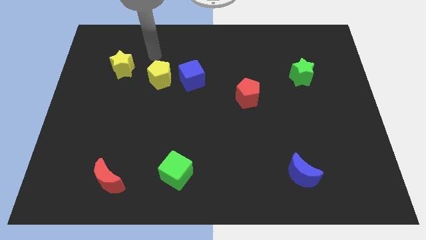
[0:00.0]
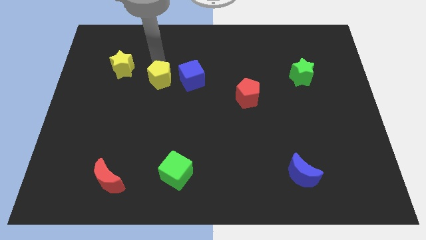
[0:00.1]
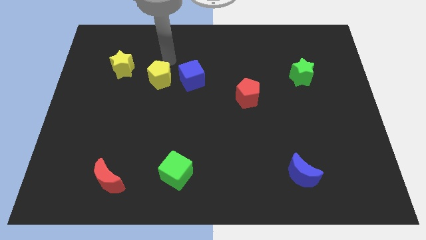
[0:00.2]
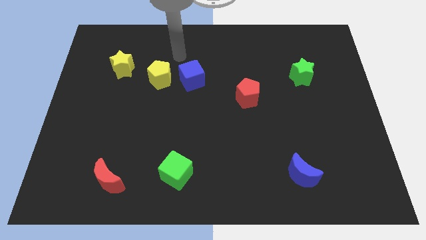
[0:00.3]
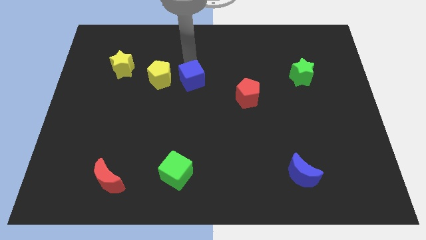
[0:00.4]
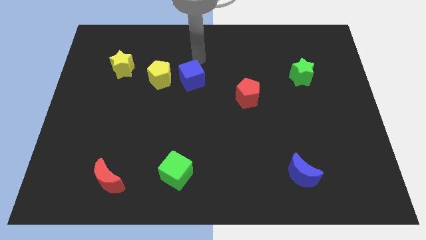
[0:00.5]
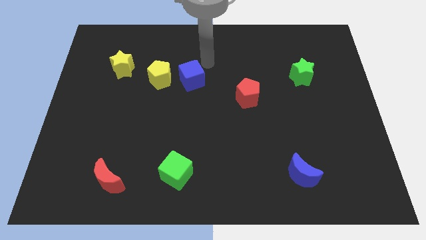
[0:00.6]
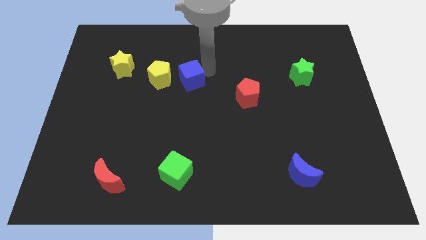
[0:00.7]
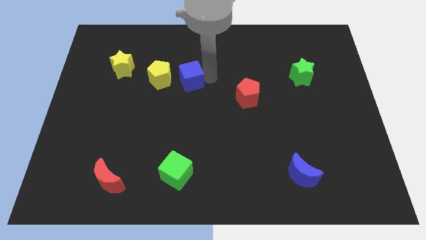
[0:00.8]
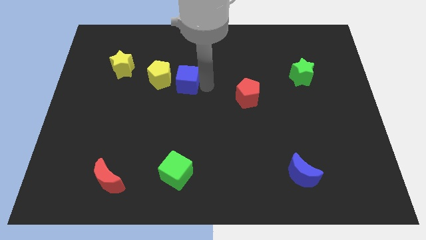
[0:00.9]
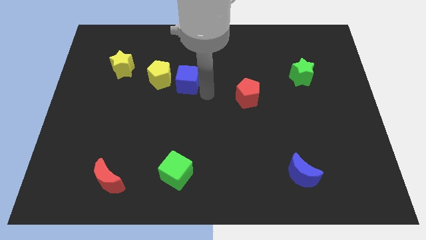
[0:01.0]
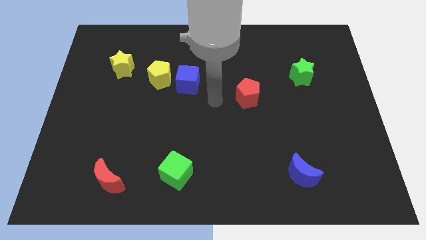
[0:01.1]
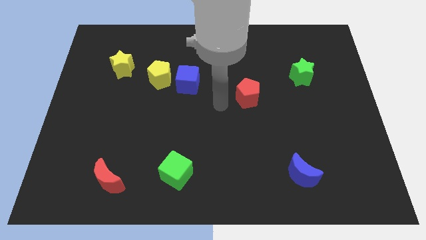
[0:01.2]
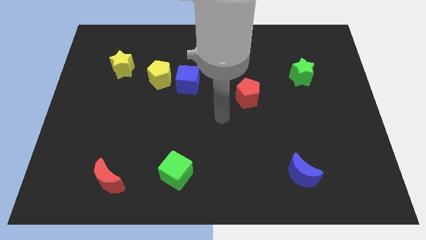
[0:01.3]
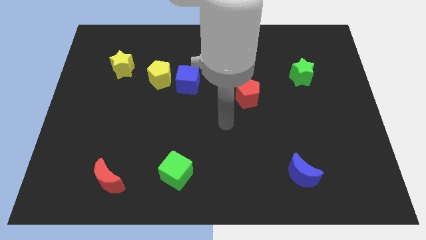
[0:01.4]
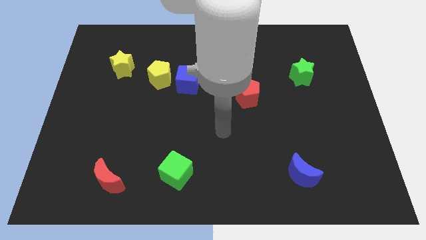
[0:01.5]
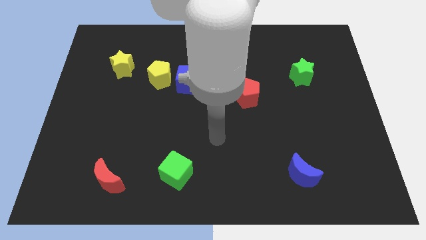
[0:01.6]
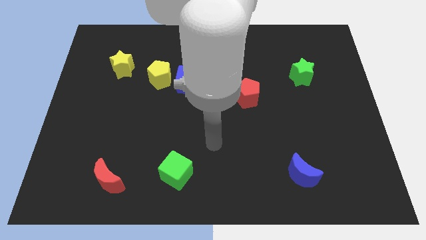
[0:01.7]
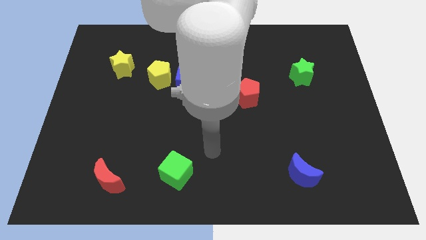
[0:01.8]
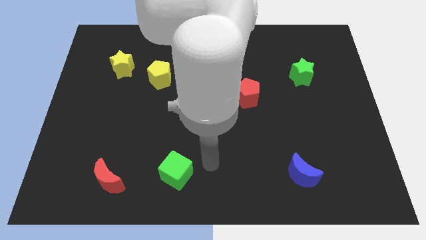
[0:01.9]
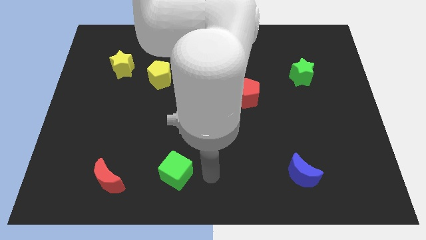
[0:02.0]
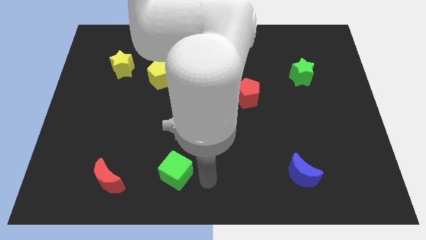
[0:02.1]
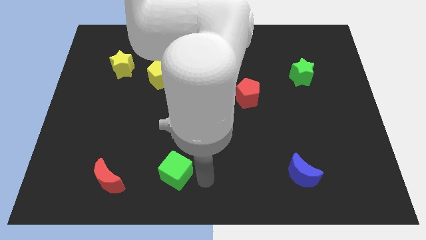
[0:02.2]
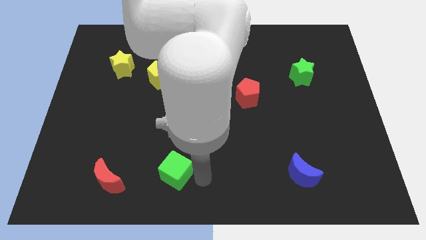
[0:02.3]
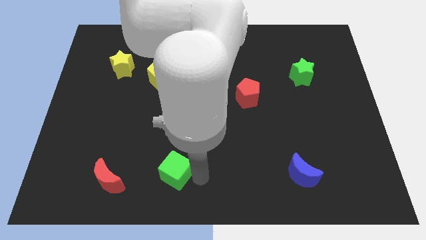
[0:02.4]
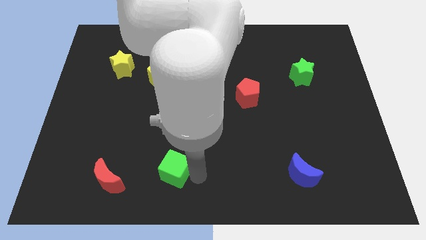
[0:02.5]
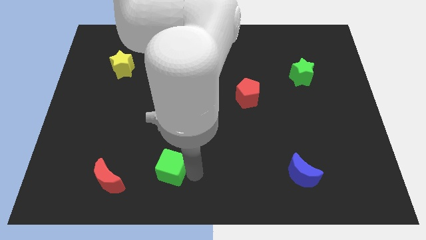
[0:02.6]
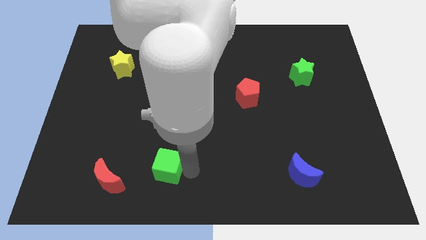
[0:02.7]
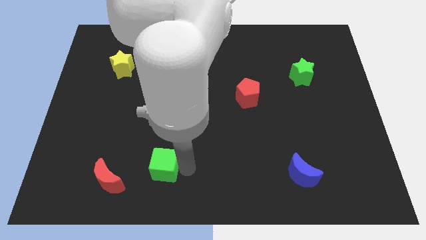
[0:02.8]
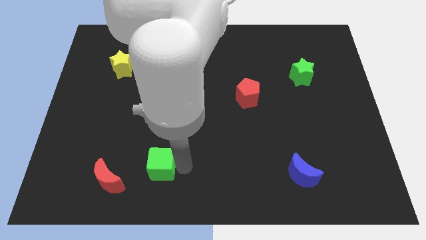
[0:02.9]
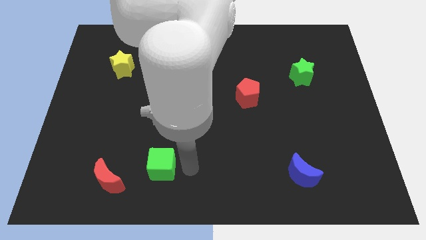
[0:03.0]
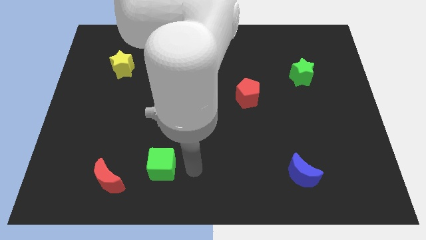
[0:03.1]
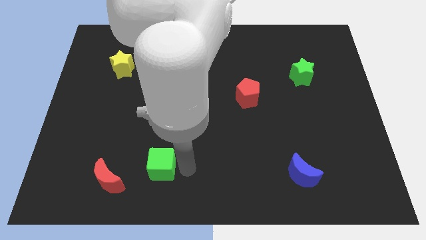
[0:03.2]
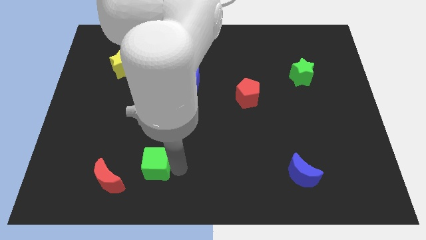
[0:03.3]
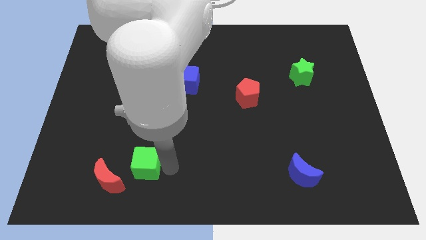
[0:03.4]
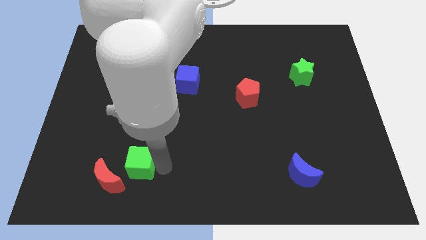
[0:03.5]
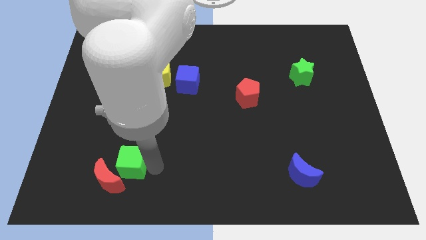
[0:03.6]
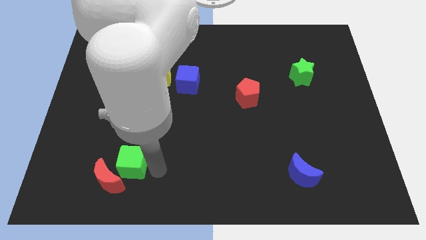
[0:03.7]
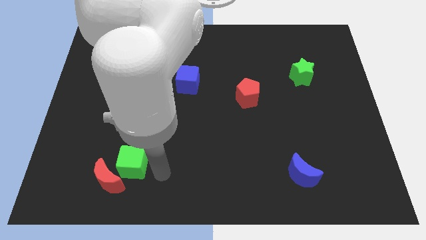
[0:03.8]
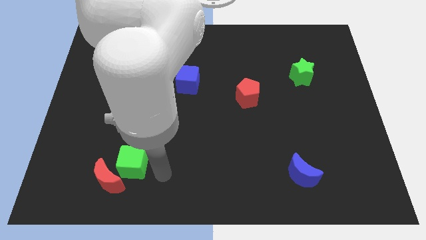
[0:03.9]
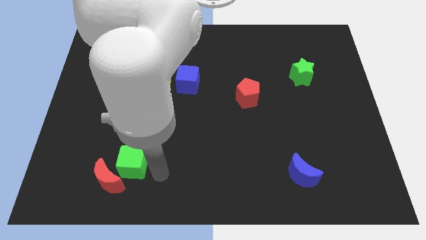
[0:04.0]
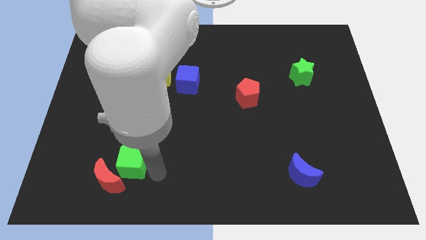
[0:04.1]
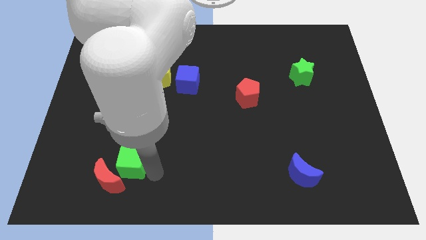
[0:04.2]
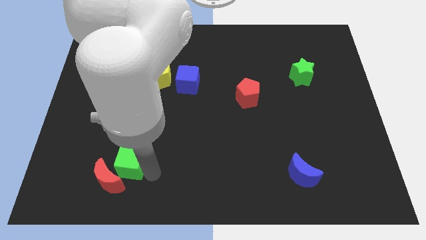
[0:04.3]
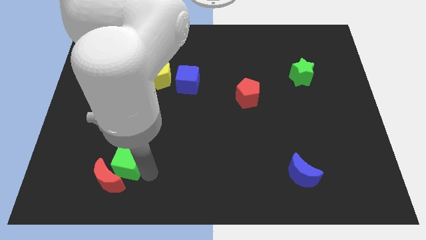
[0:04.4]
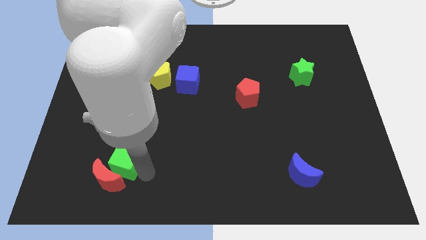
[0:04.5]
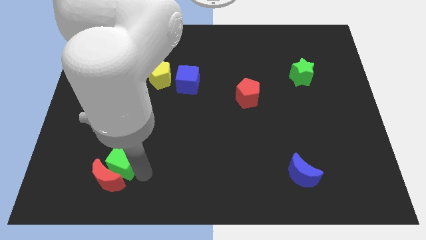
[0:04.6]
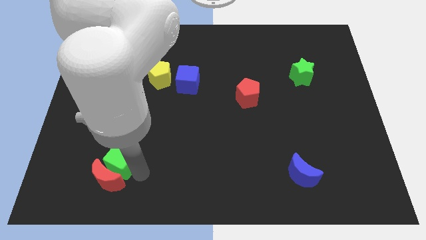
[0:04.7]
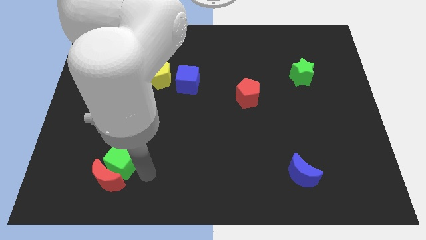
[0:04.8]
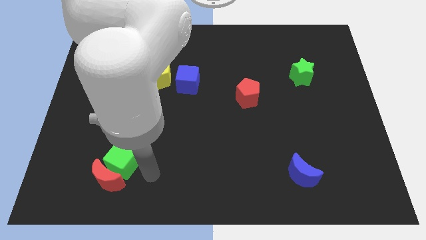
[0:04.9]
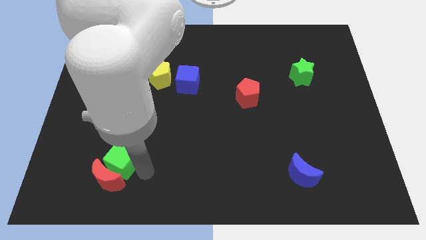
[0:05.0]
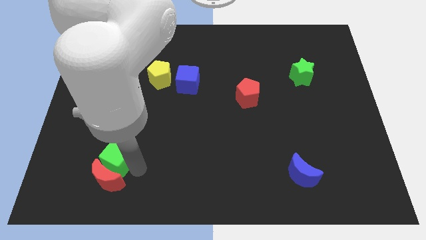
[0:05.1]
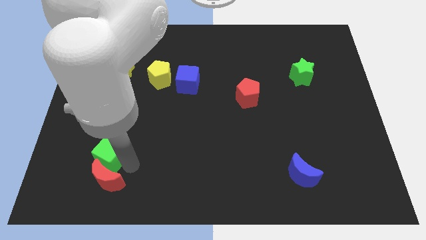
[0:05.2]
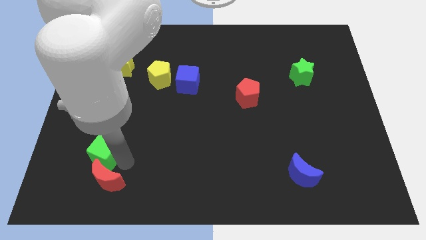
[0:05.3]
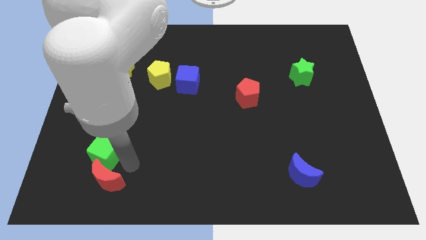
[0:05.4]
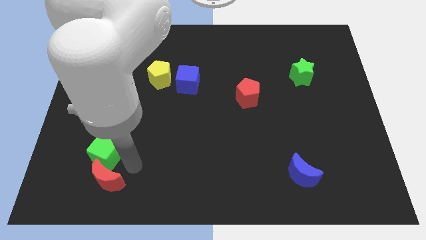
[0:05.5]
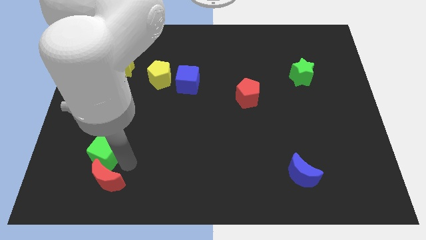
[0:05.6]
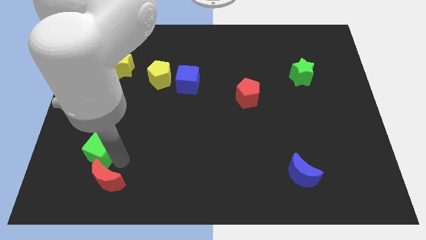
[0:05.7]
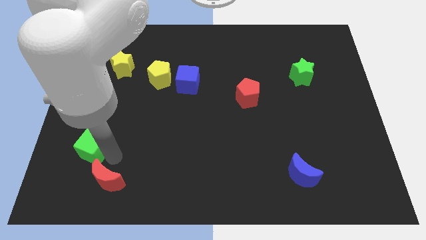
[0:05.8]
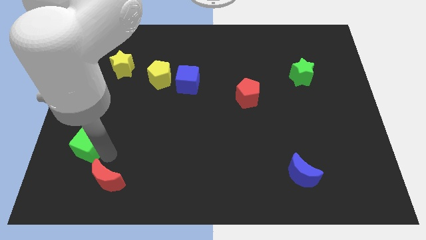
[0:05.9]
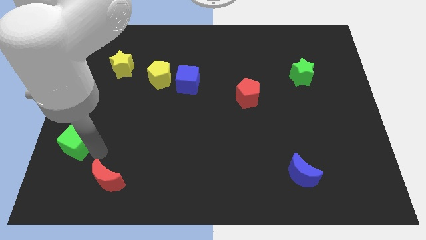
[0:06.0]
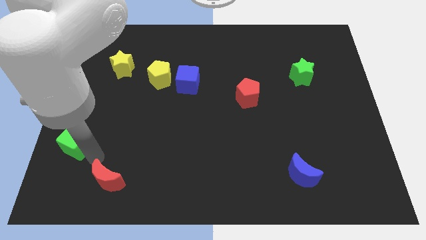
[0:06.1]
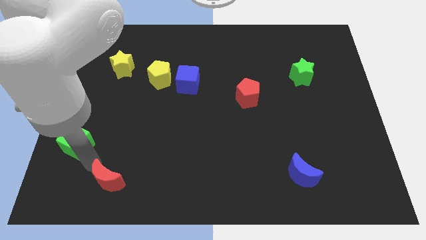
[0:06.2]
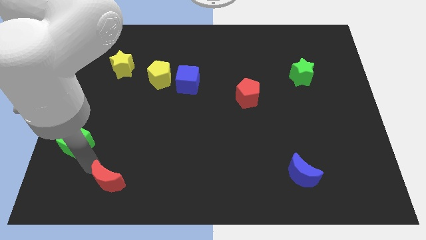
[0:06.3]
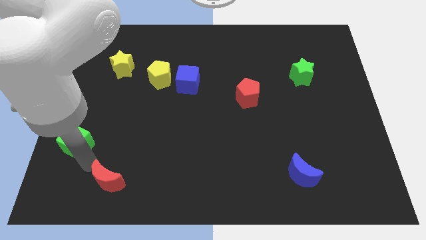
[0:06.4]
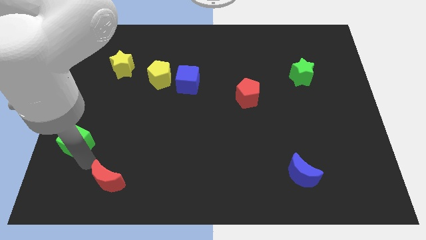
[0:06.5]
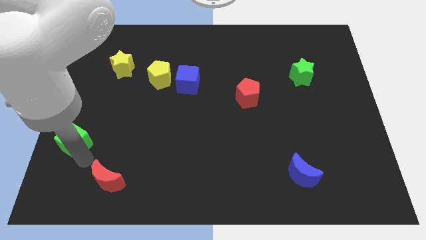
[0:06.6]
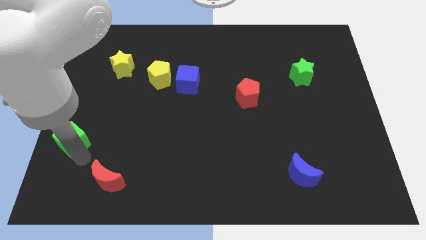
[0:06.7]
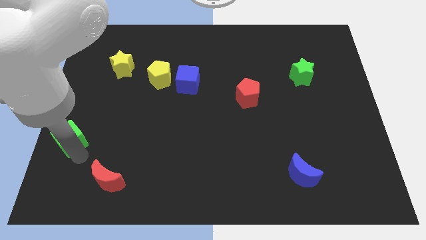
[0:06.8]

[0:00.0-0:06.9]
move the green cube to the left side of the board
